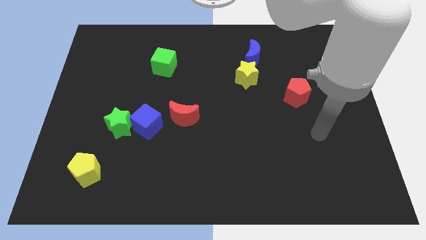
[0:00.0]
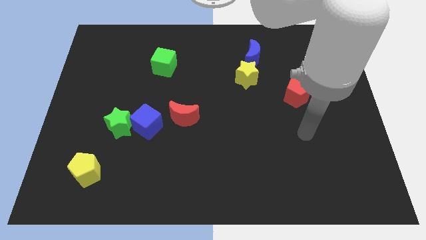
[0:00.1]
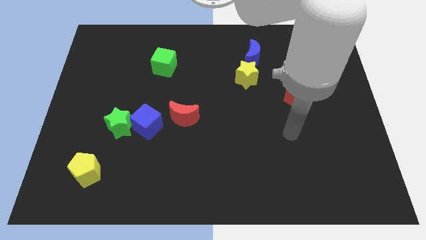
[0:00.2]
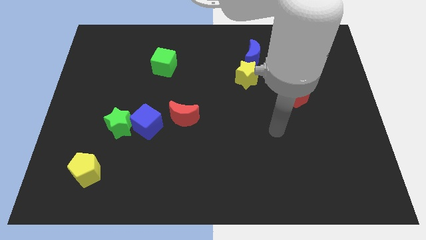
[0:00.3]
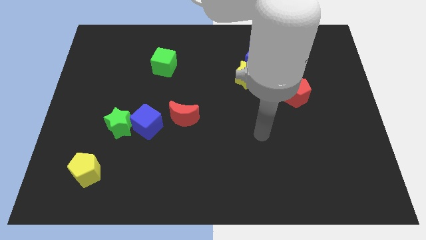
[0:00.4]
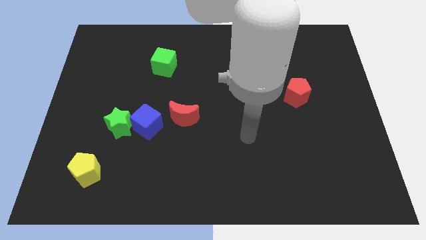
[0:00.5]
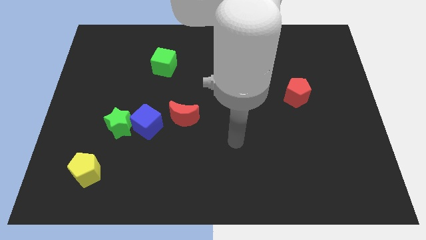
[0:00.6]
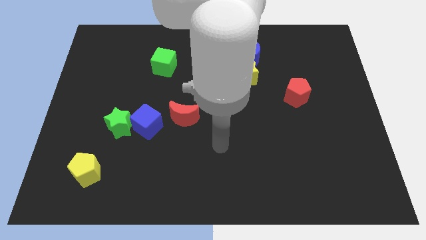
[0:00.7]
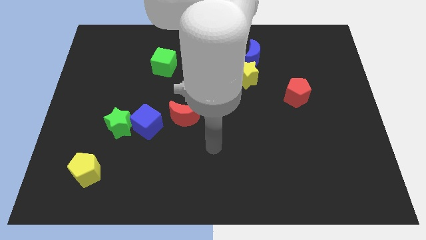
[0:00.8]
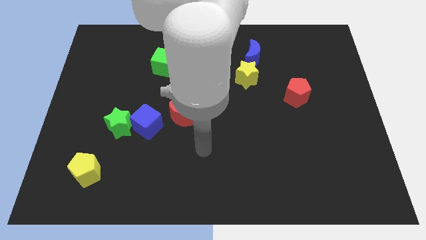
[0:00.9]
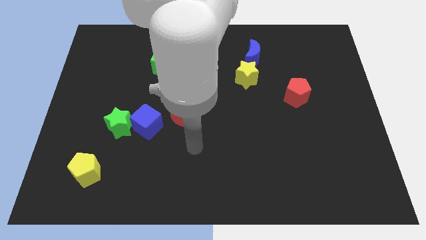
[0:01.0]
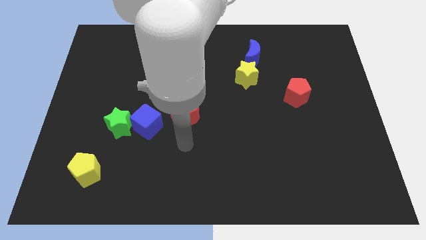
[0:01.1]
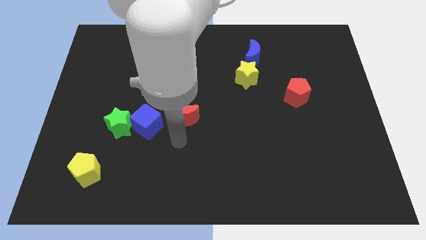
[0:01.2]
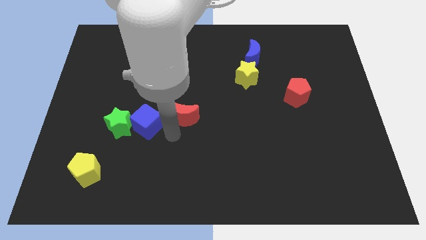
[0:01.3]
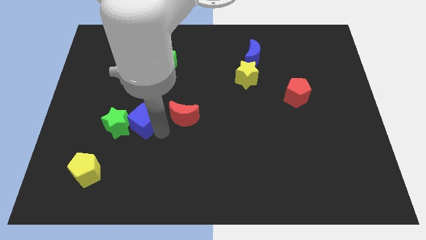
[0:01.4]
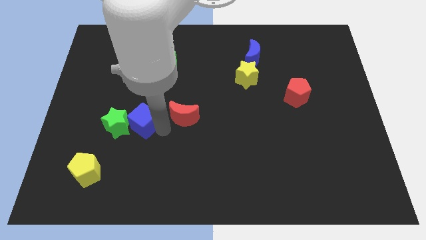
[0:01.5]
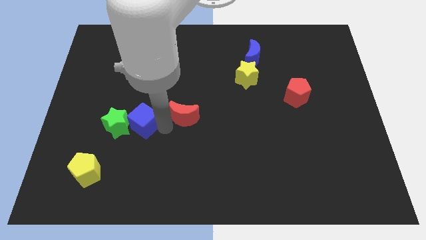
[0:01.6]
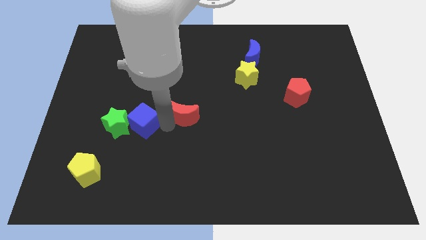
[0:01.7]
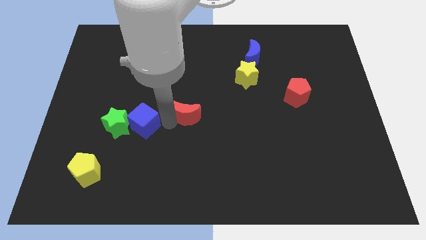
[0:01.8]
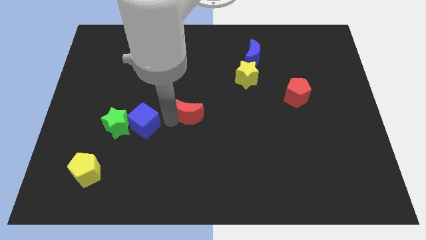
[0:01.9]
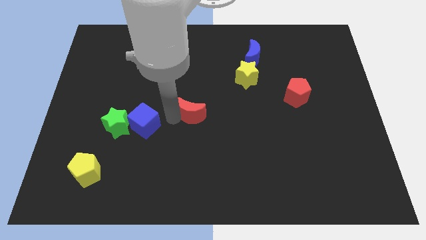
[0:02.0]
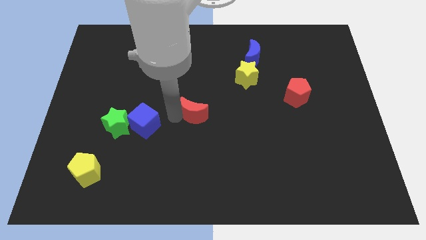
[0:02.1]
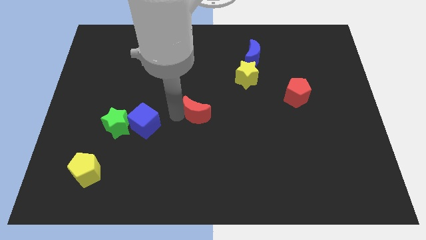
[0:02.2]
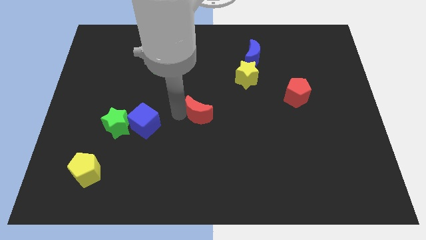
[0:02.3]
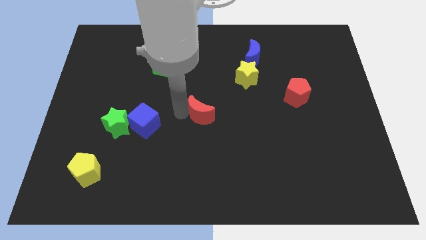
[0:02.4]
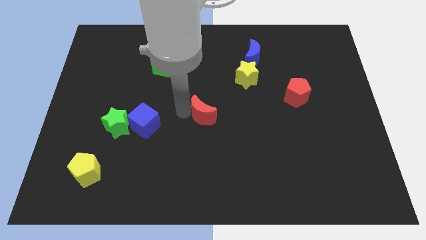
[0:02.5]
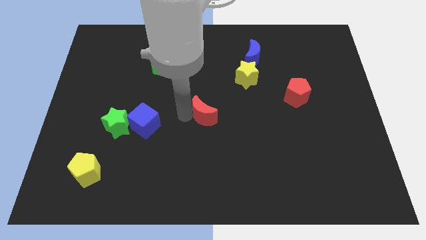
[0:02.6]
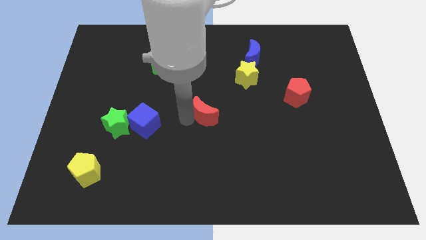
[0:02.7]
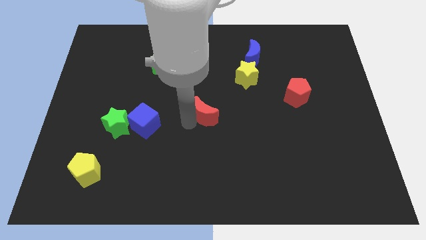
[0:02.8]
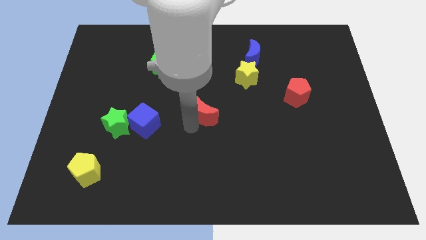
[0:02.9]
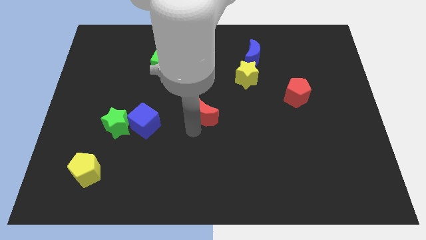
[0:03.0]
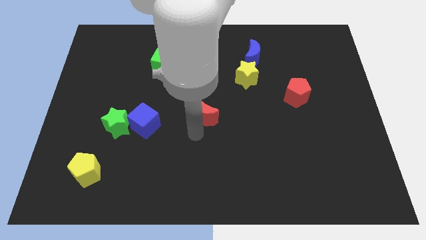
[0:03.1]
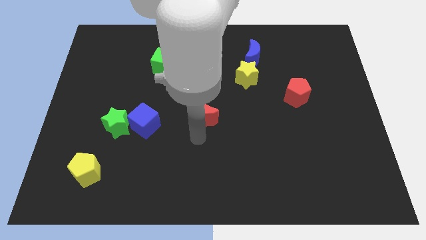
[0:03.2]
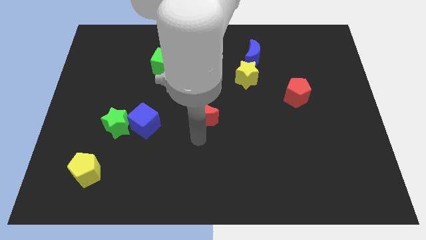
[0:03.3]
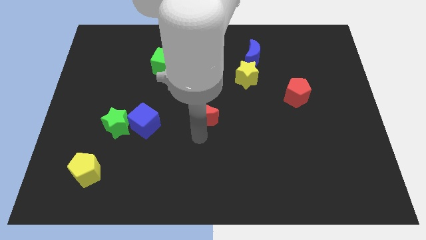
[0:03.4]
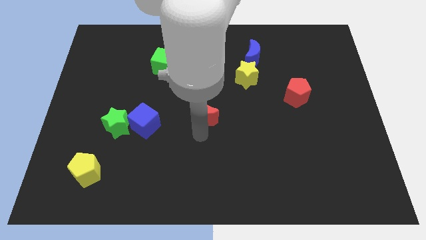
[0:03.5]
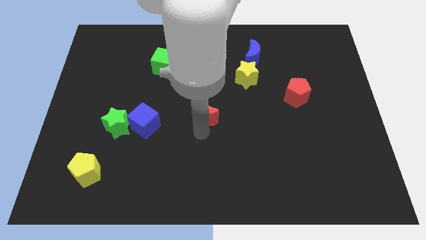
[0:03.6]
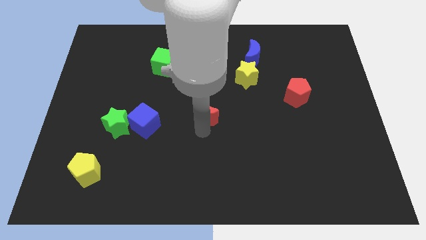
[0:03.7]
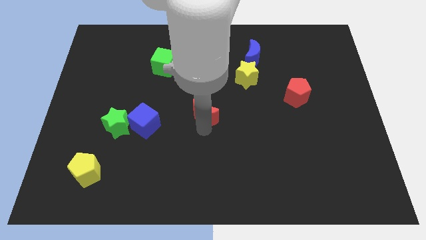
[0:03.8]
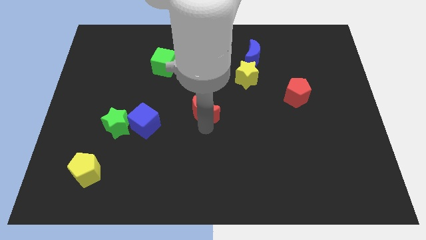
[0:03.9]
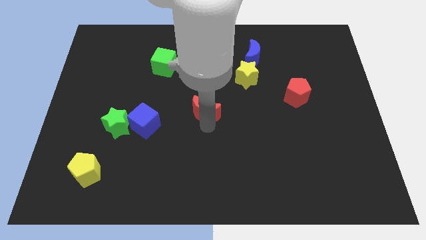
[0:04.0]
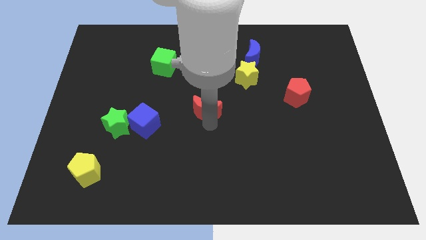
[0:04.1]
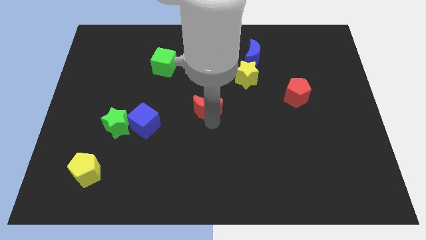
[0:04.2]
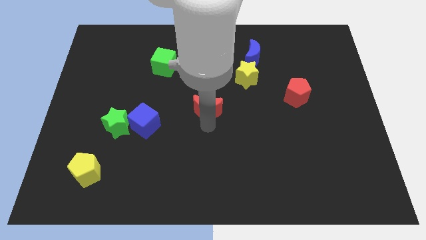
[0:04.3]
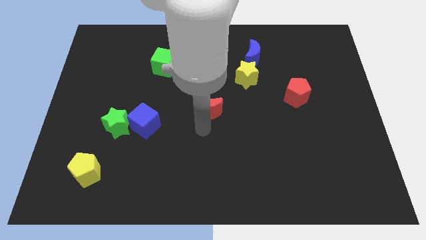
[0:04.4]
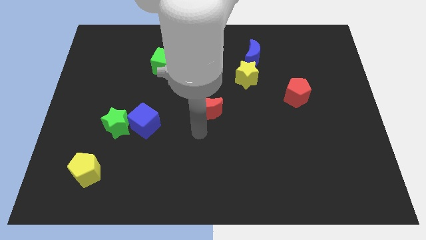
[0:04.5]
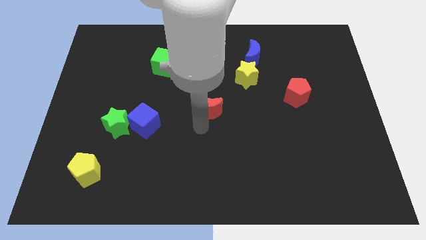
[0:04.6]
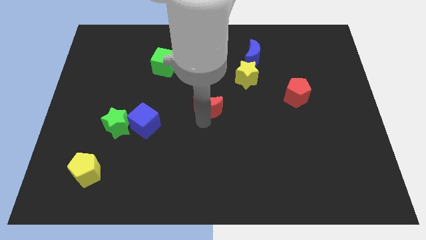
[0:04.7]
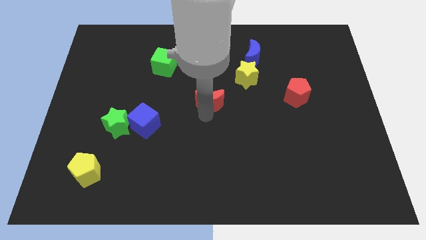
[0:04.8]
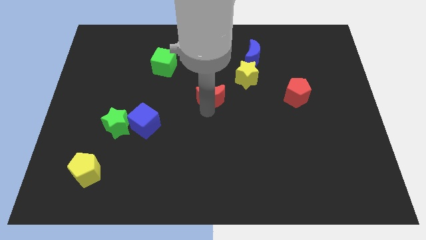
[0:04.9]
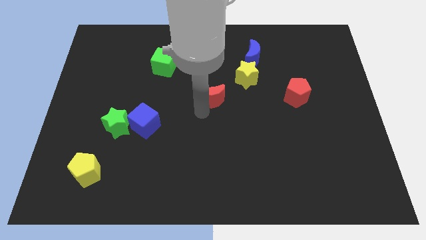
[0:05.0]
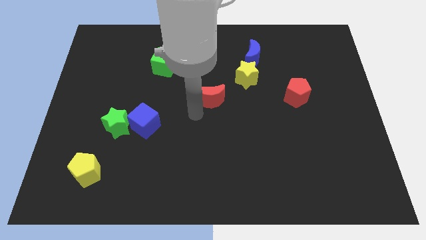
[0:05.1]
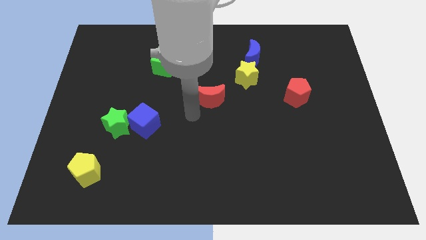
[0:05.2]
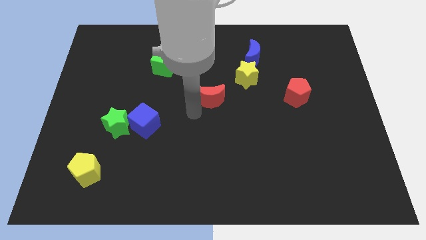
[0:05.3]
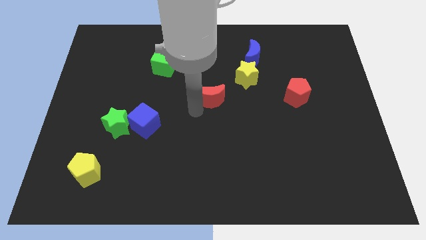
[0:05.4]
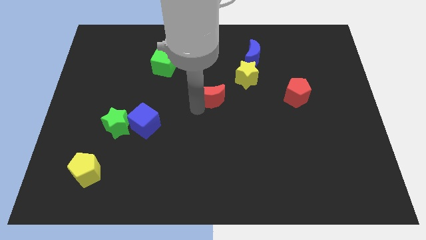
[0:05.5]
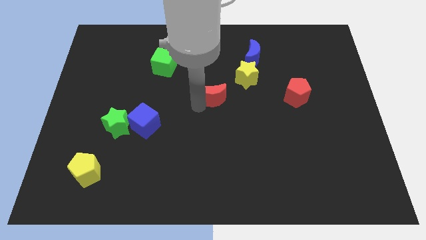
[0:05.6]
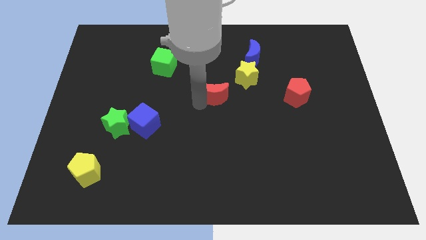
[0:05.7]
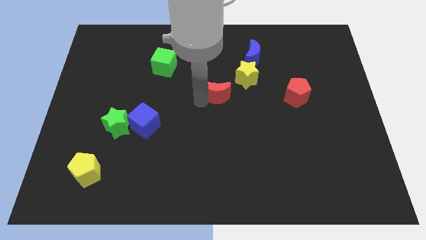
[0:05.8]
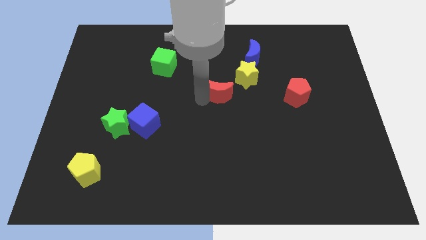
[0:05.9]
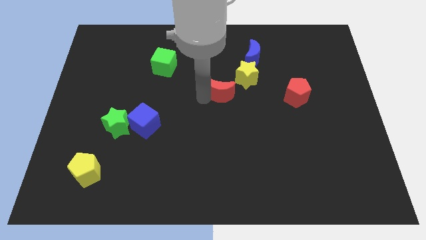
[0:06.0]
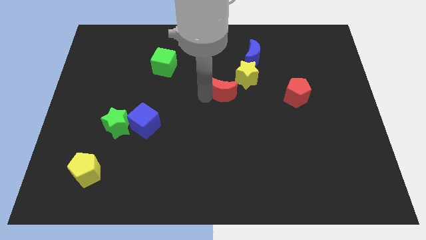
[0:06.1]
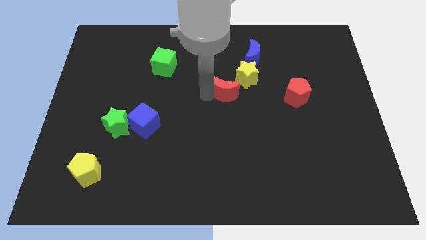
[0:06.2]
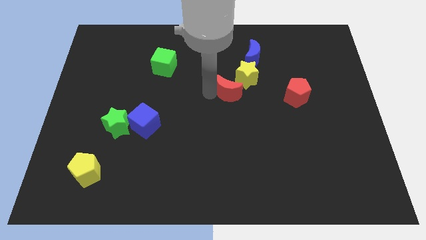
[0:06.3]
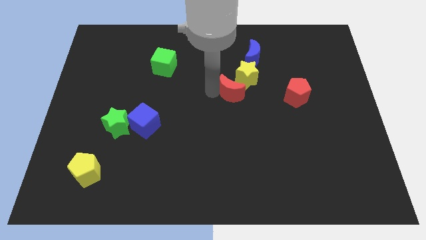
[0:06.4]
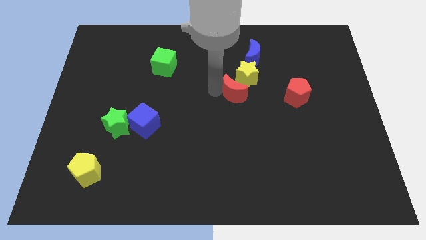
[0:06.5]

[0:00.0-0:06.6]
push the red moon to the yellow star
